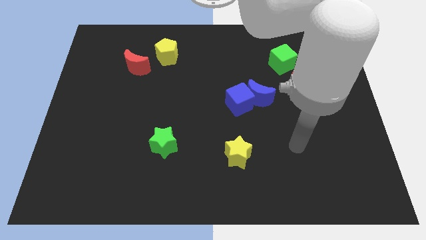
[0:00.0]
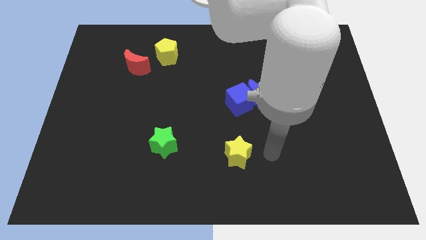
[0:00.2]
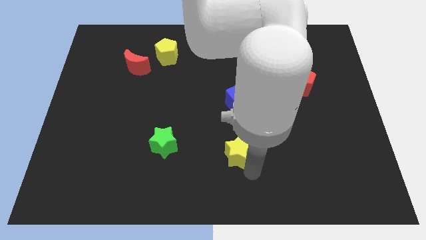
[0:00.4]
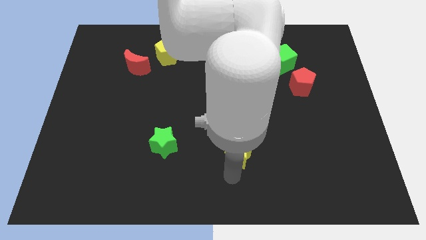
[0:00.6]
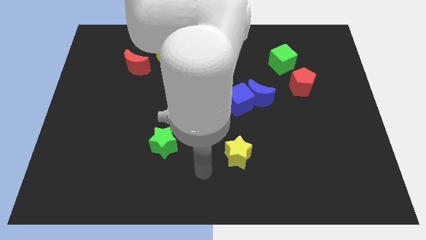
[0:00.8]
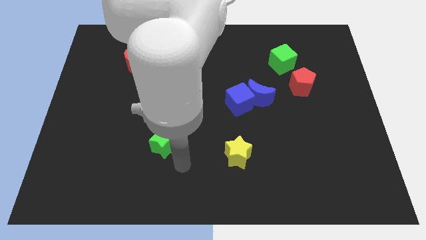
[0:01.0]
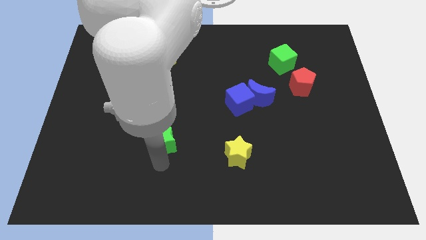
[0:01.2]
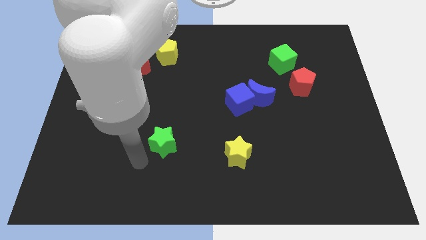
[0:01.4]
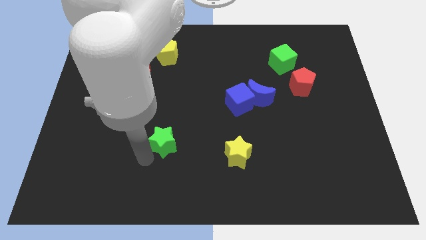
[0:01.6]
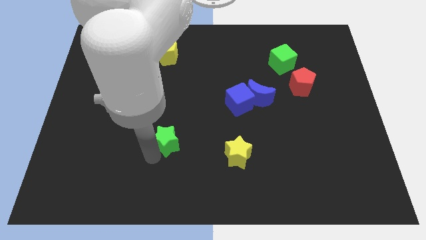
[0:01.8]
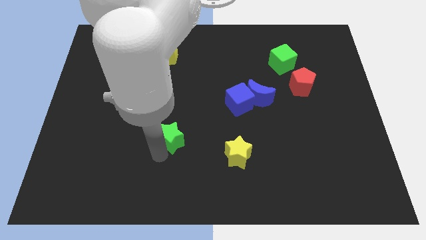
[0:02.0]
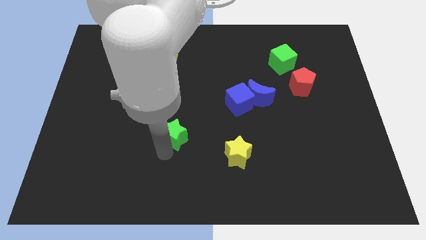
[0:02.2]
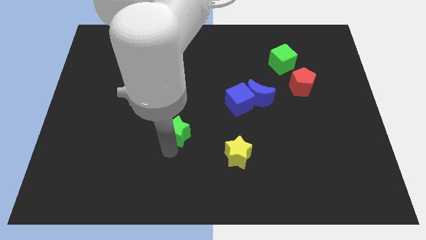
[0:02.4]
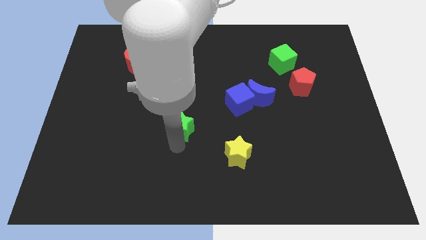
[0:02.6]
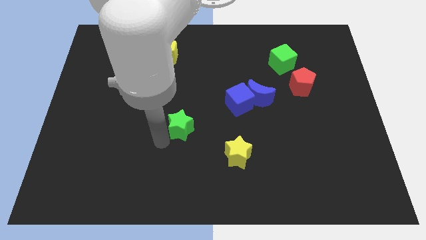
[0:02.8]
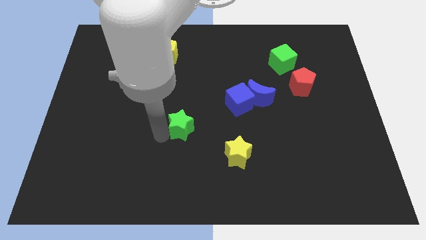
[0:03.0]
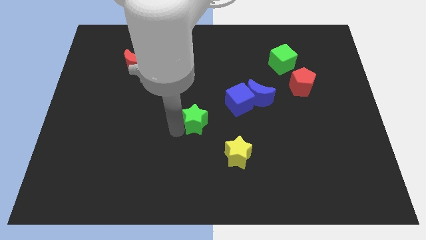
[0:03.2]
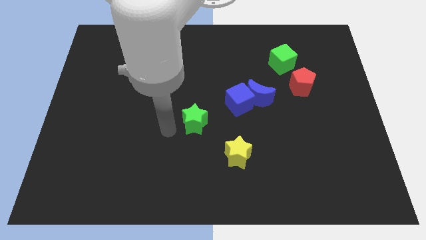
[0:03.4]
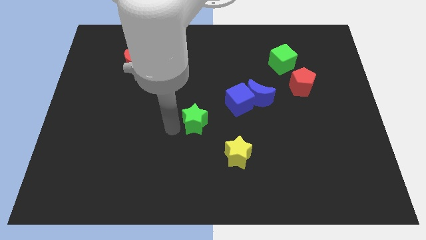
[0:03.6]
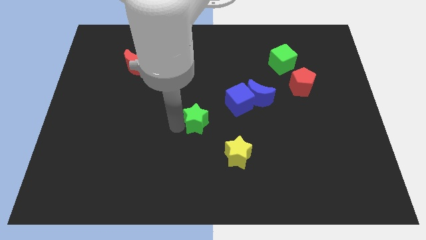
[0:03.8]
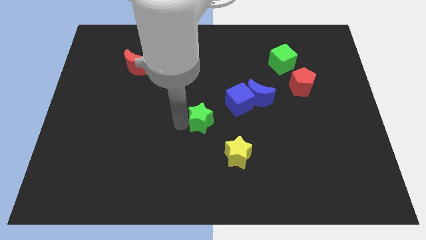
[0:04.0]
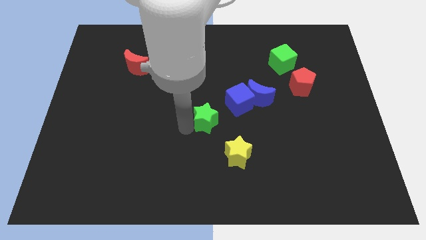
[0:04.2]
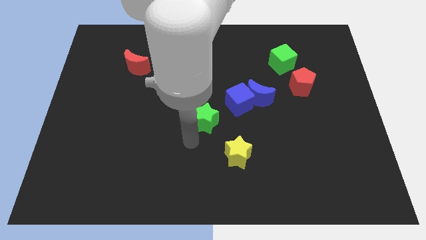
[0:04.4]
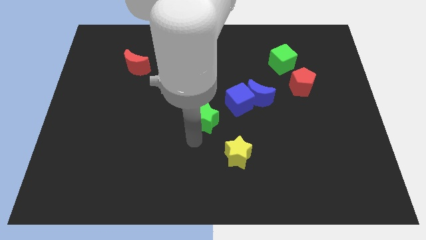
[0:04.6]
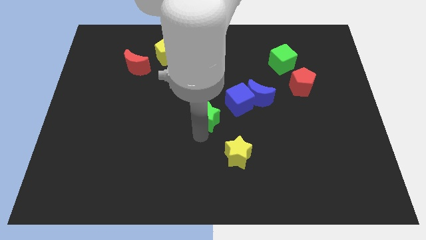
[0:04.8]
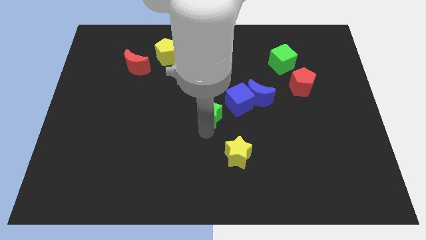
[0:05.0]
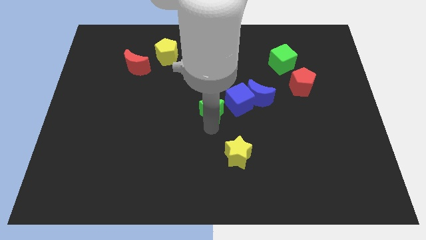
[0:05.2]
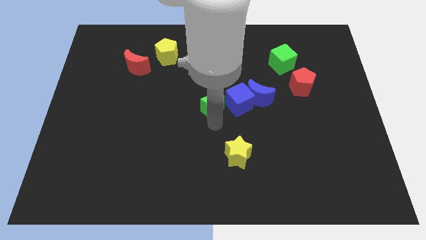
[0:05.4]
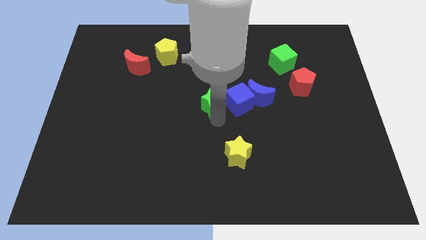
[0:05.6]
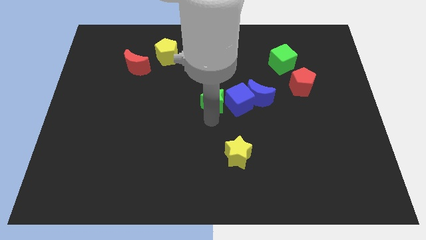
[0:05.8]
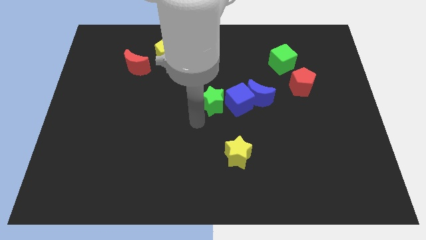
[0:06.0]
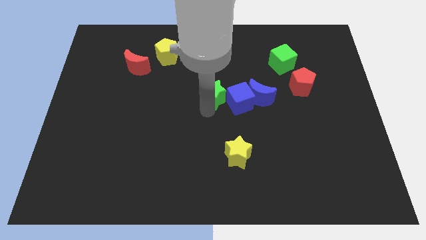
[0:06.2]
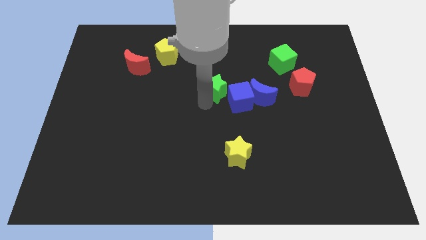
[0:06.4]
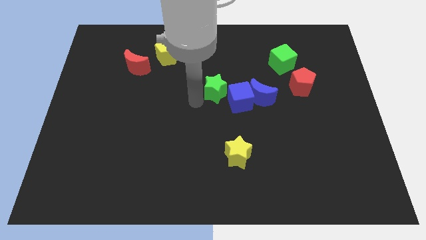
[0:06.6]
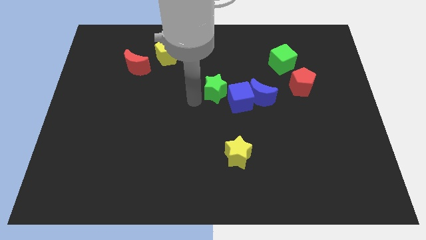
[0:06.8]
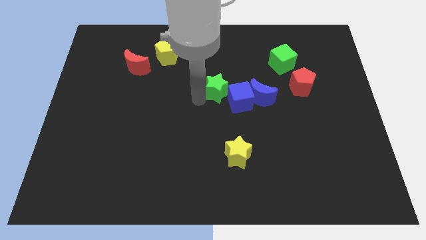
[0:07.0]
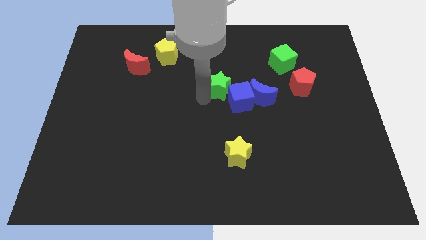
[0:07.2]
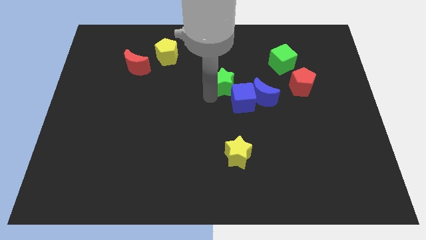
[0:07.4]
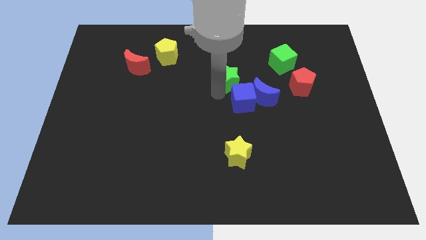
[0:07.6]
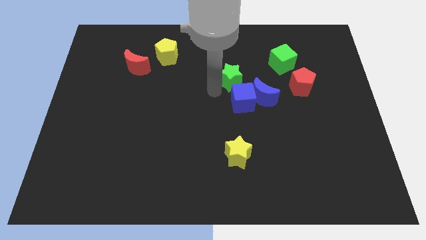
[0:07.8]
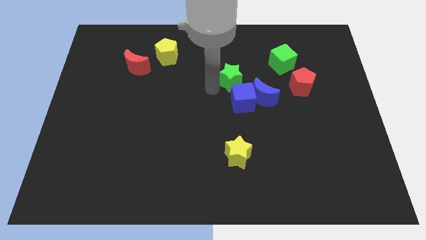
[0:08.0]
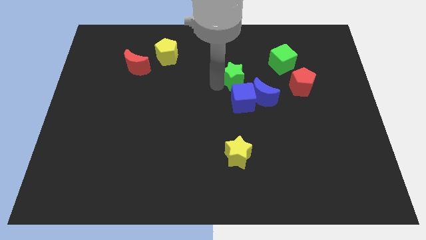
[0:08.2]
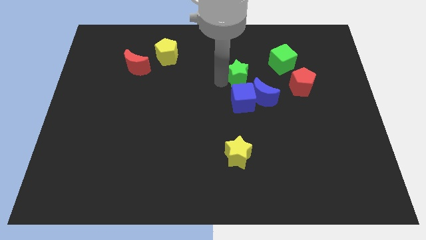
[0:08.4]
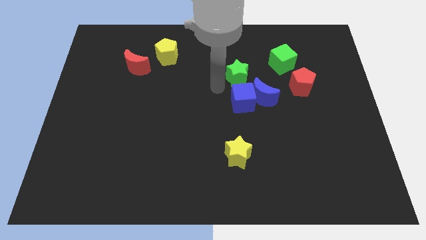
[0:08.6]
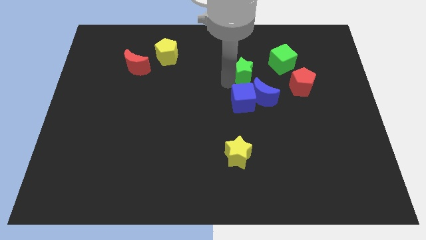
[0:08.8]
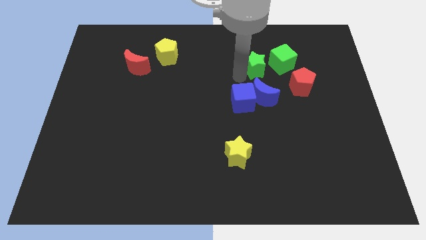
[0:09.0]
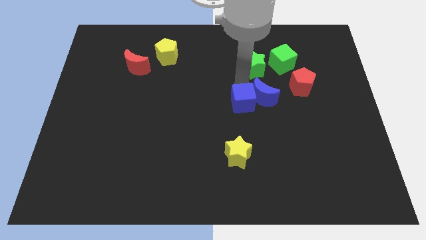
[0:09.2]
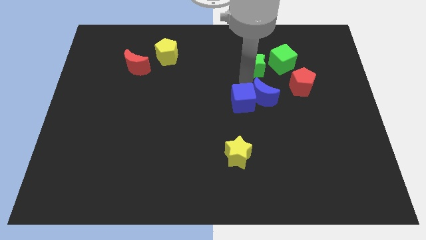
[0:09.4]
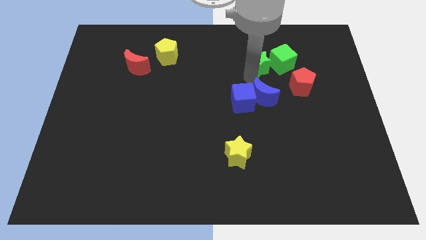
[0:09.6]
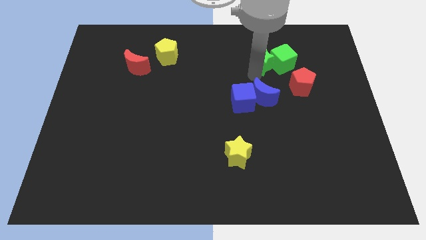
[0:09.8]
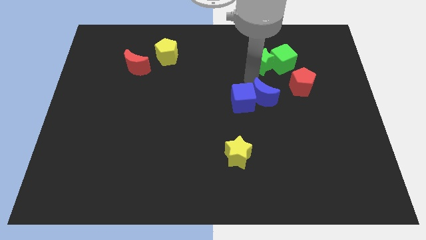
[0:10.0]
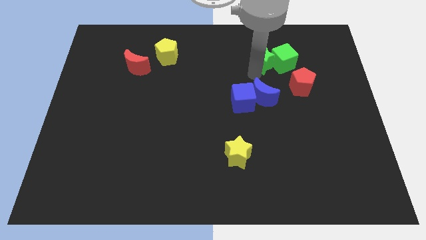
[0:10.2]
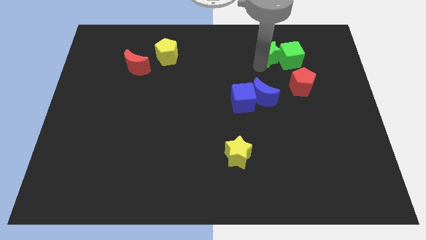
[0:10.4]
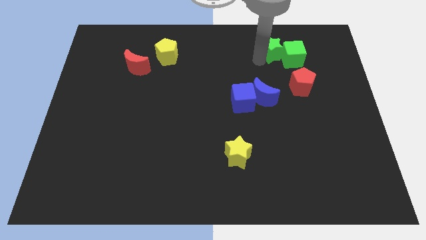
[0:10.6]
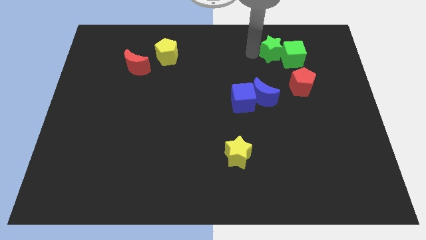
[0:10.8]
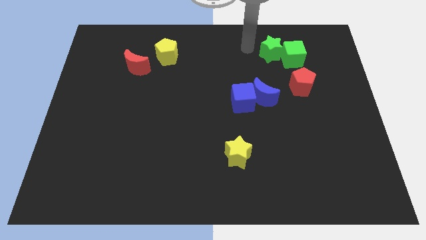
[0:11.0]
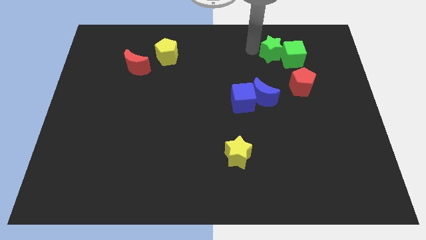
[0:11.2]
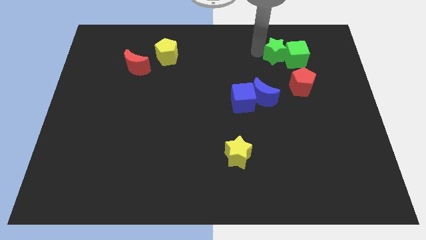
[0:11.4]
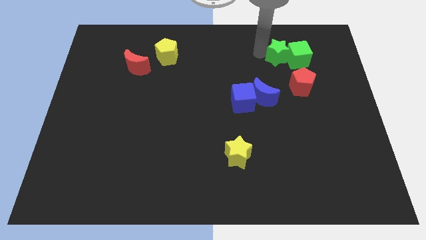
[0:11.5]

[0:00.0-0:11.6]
move the green star to the top of the red pentagon

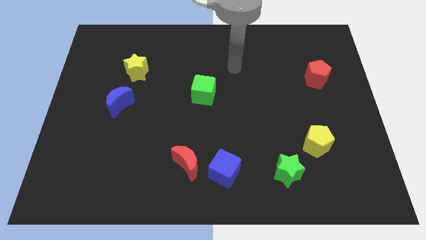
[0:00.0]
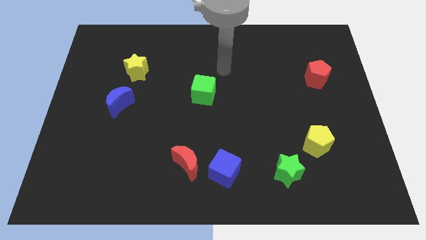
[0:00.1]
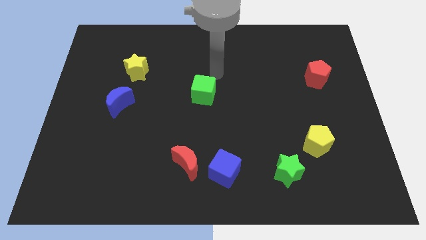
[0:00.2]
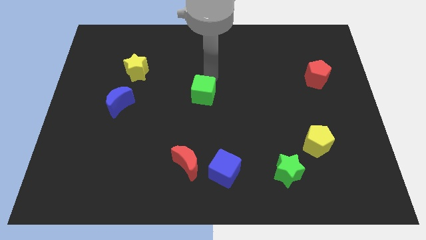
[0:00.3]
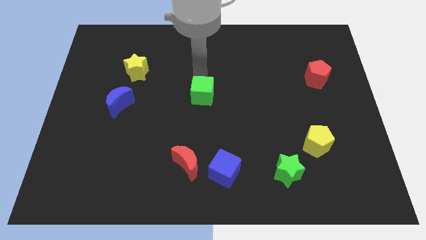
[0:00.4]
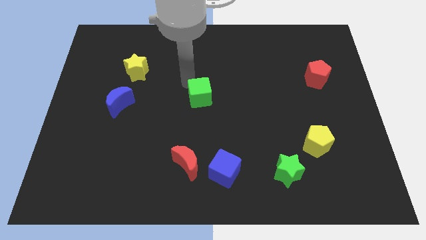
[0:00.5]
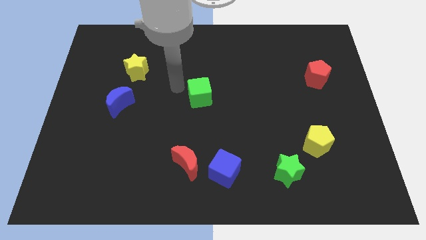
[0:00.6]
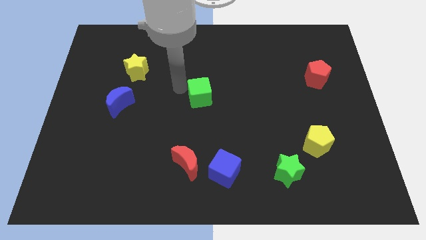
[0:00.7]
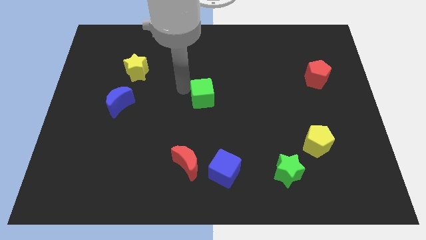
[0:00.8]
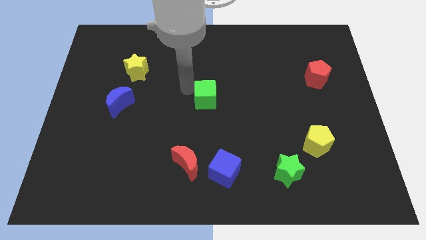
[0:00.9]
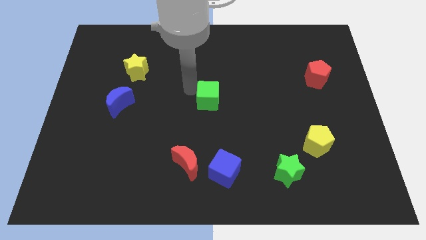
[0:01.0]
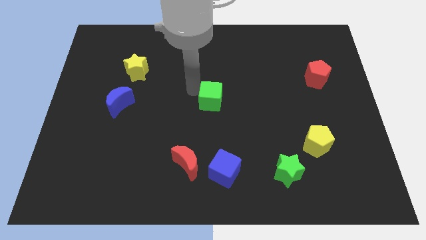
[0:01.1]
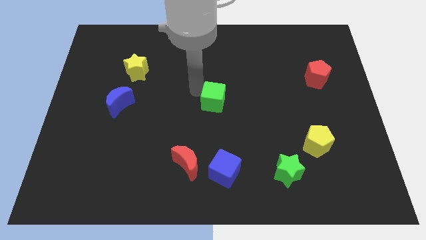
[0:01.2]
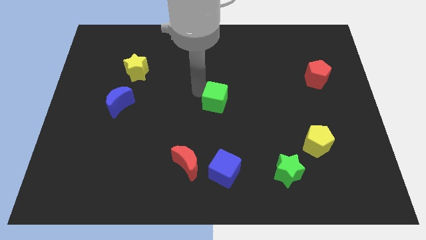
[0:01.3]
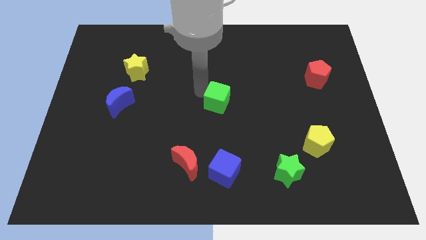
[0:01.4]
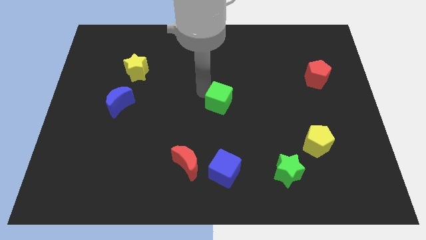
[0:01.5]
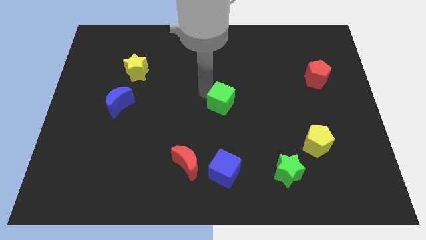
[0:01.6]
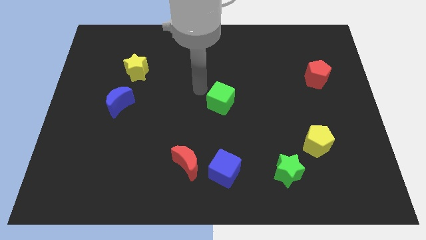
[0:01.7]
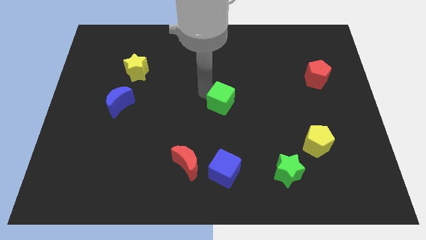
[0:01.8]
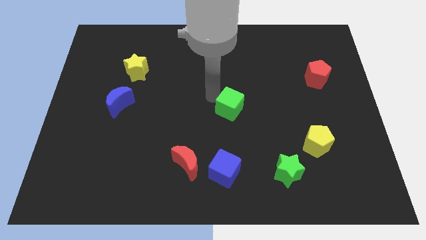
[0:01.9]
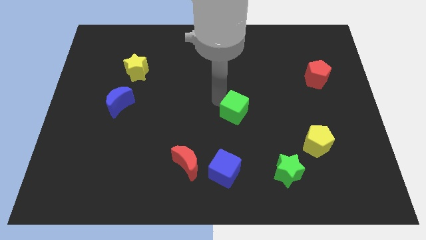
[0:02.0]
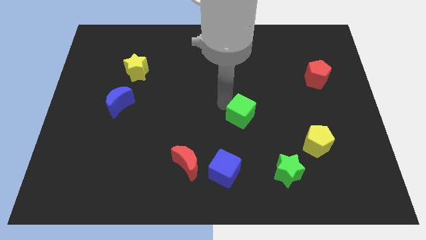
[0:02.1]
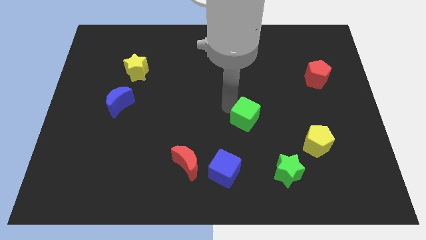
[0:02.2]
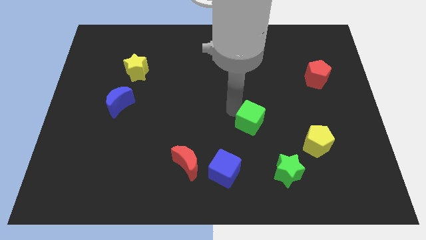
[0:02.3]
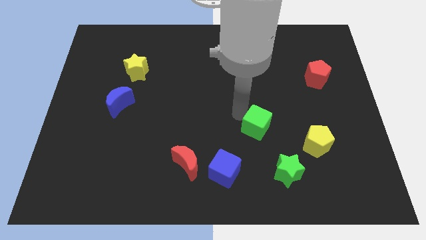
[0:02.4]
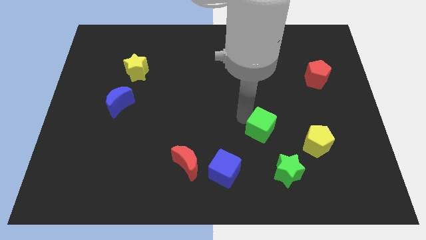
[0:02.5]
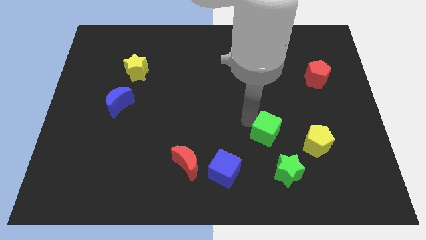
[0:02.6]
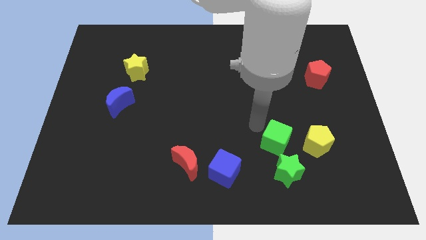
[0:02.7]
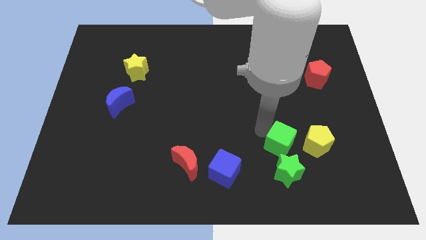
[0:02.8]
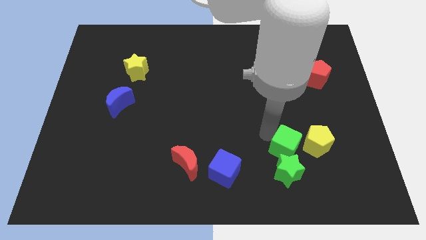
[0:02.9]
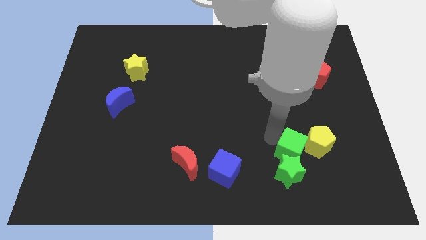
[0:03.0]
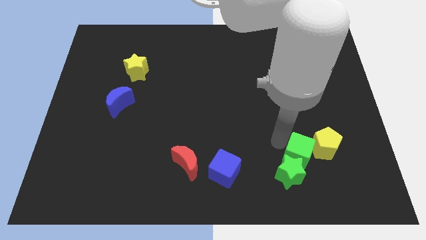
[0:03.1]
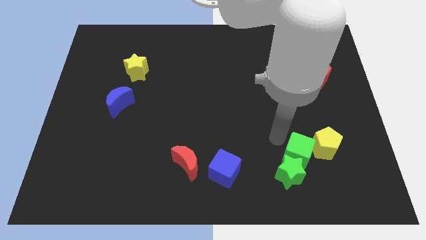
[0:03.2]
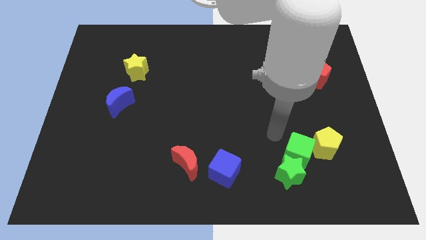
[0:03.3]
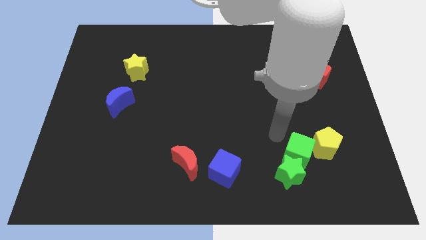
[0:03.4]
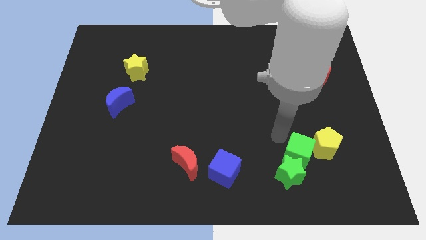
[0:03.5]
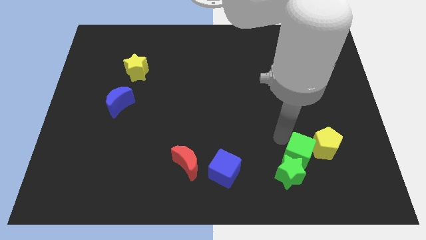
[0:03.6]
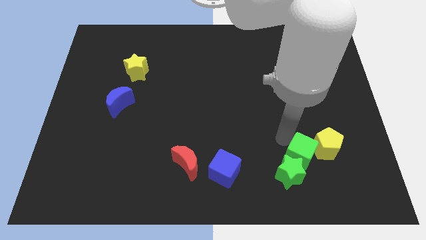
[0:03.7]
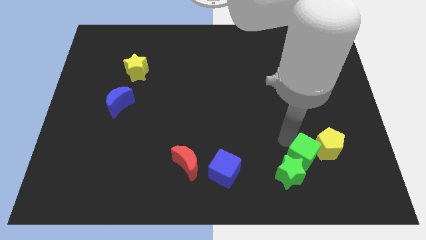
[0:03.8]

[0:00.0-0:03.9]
move the green cube right of the green star
